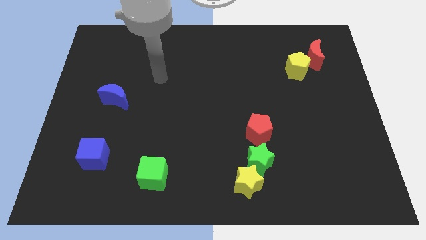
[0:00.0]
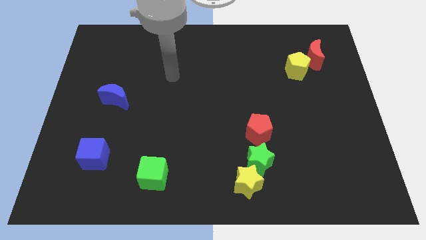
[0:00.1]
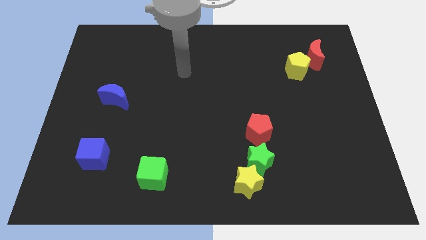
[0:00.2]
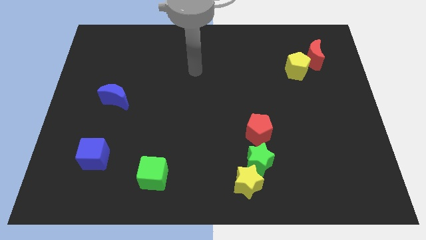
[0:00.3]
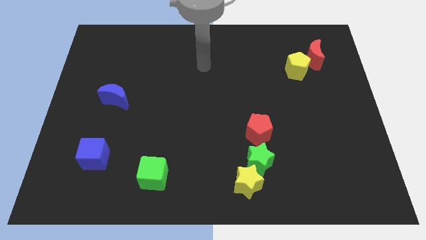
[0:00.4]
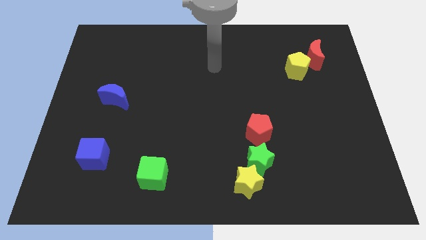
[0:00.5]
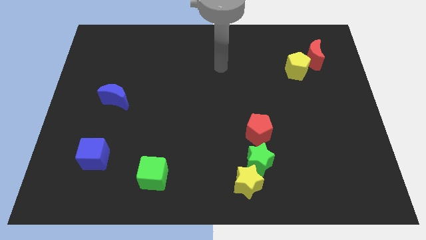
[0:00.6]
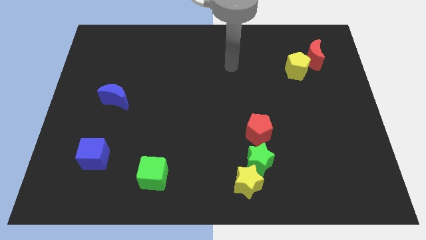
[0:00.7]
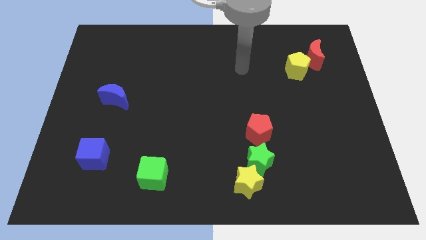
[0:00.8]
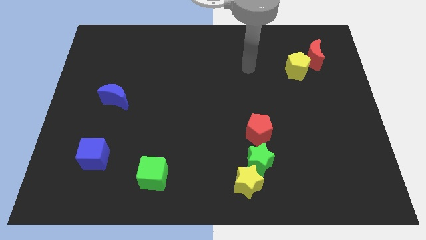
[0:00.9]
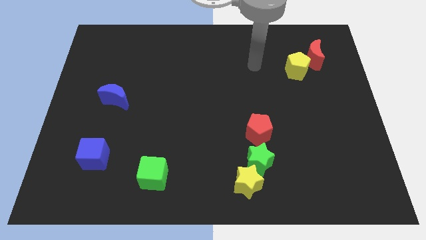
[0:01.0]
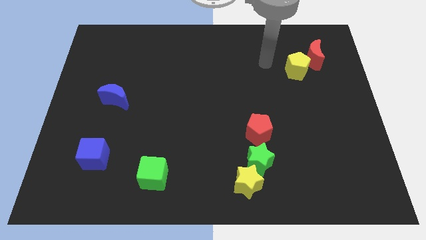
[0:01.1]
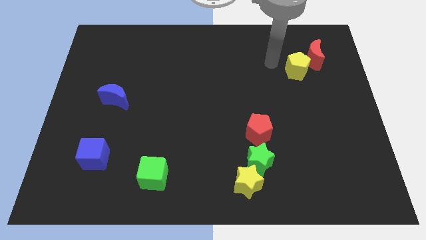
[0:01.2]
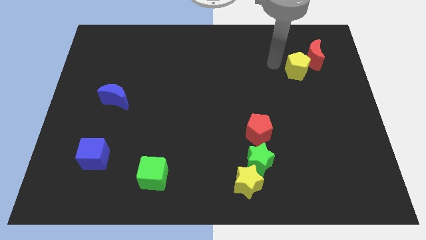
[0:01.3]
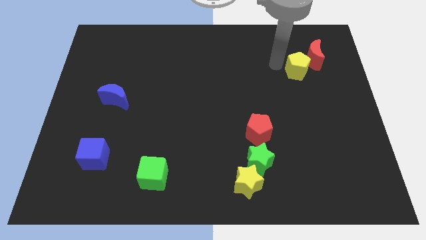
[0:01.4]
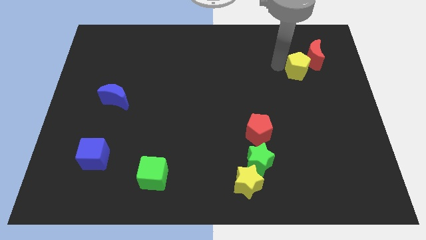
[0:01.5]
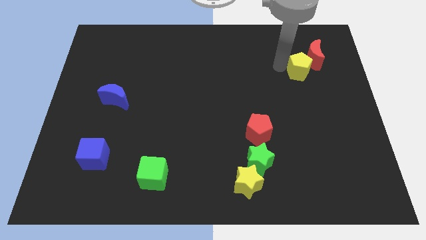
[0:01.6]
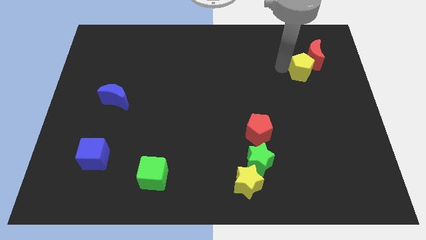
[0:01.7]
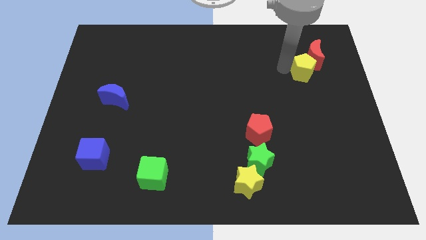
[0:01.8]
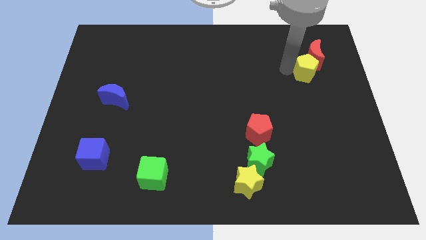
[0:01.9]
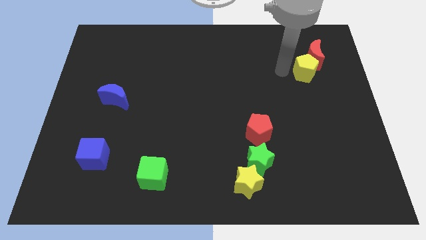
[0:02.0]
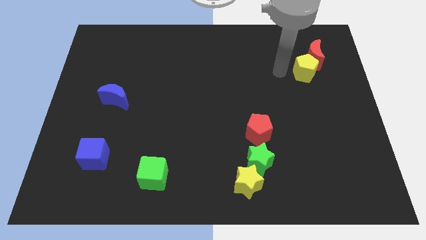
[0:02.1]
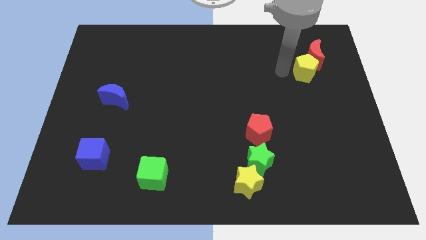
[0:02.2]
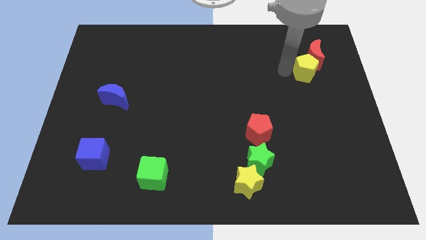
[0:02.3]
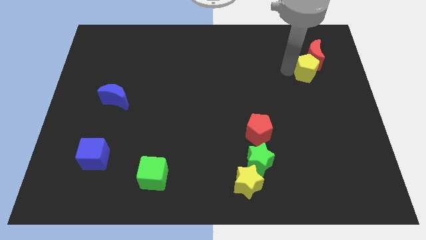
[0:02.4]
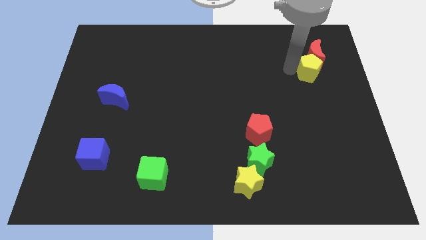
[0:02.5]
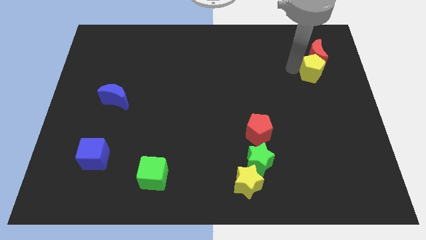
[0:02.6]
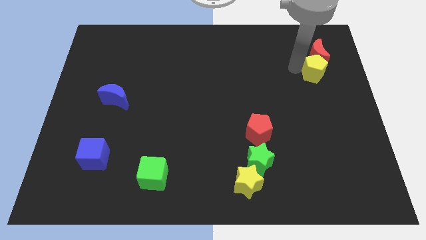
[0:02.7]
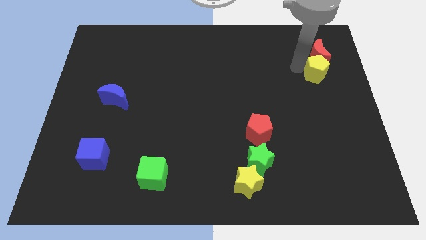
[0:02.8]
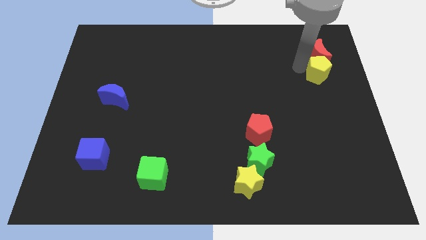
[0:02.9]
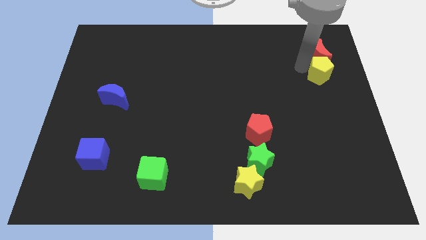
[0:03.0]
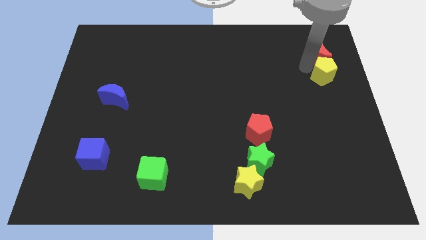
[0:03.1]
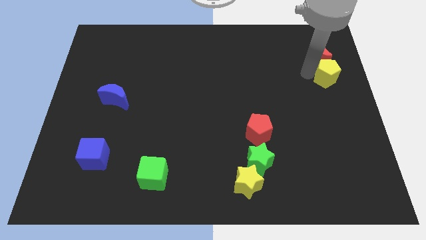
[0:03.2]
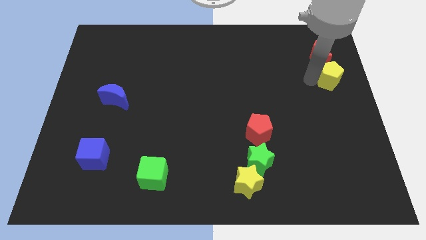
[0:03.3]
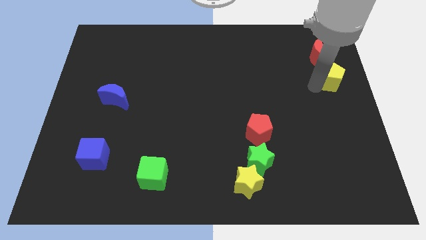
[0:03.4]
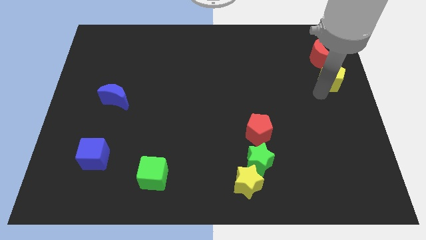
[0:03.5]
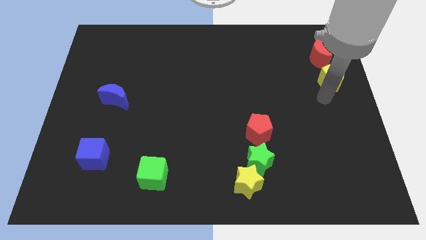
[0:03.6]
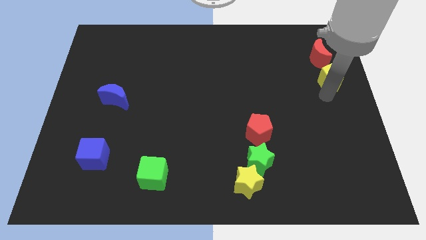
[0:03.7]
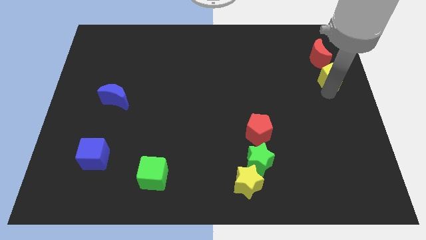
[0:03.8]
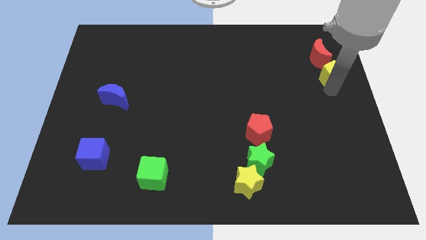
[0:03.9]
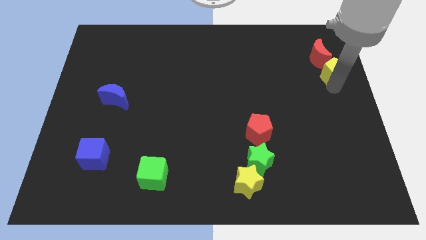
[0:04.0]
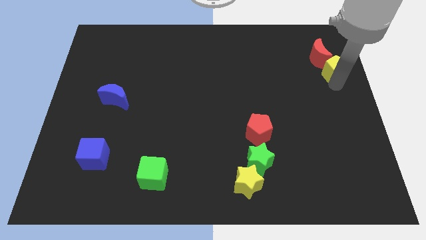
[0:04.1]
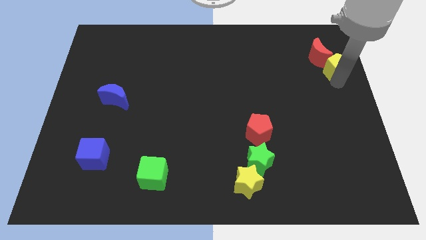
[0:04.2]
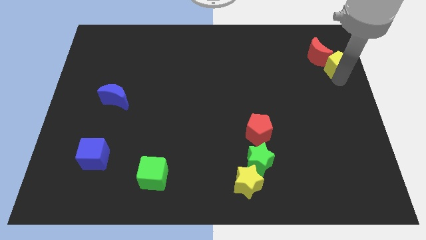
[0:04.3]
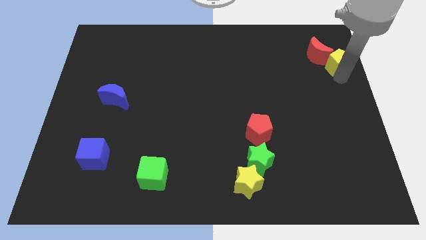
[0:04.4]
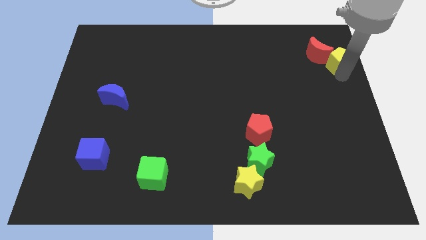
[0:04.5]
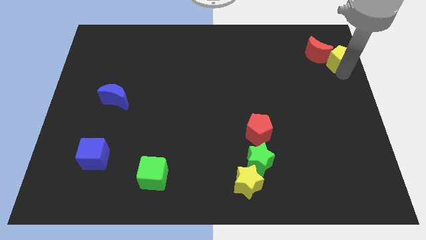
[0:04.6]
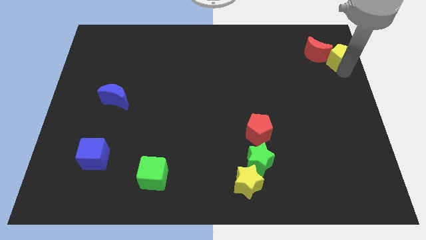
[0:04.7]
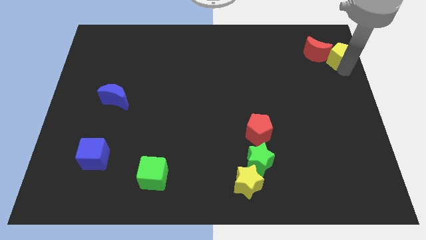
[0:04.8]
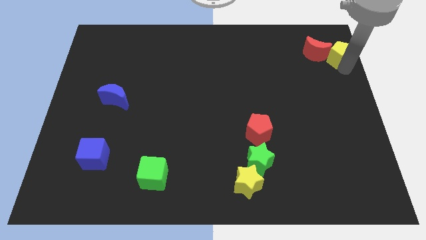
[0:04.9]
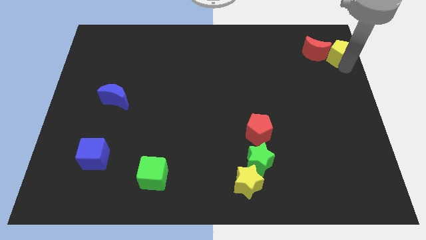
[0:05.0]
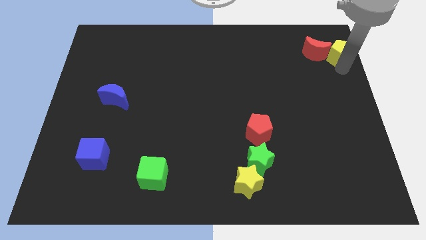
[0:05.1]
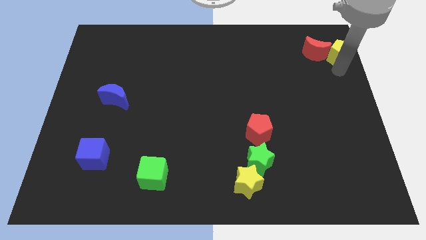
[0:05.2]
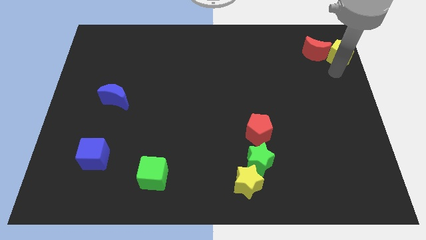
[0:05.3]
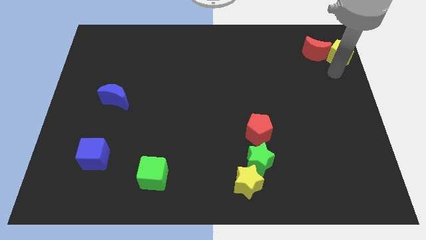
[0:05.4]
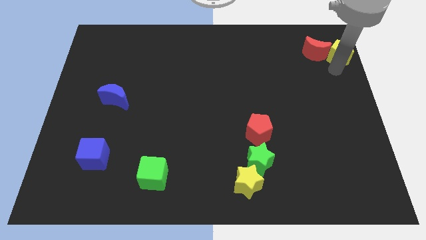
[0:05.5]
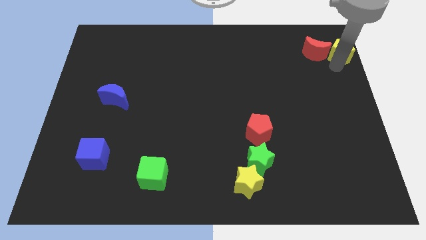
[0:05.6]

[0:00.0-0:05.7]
push the yellow pentagon to the upper right corner
